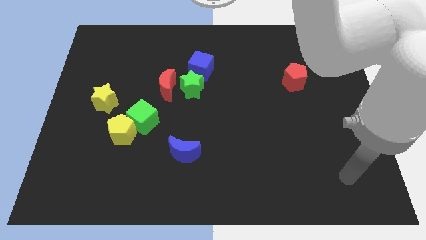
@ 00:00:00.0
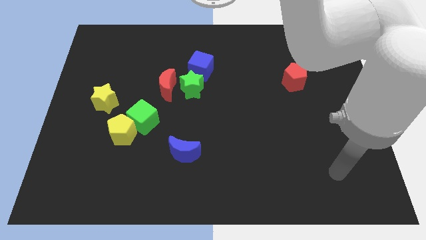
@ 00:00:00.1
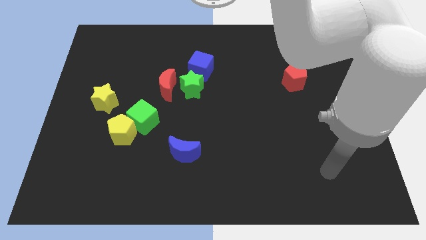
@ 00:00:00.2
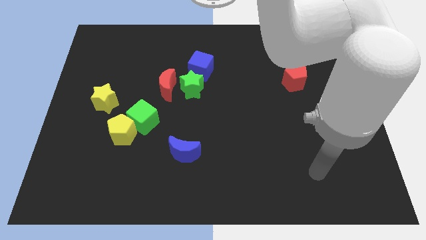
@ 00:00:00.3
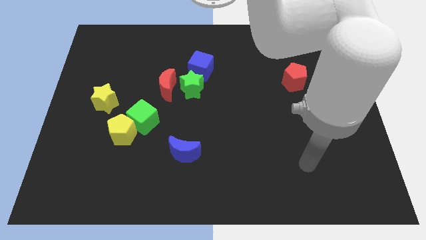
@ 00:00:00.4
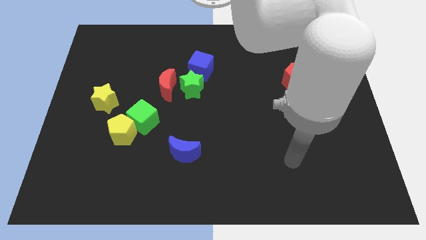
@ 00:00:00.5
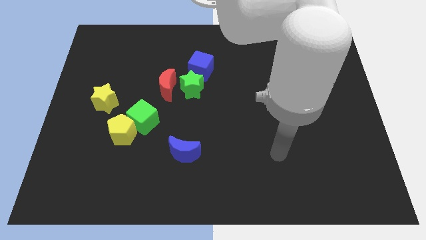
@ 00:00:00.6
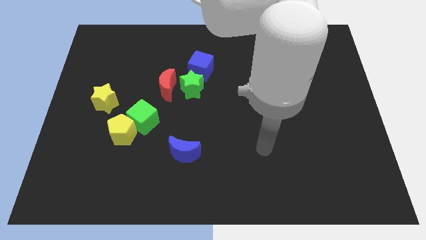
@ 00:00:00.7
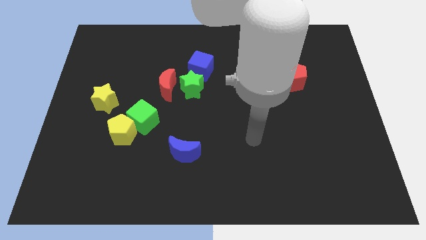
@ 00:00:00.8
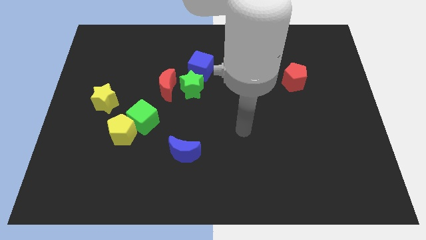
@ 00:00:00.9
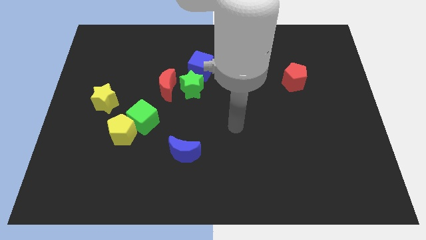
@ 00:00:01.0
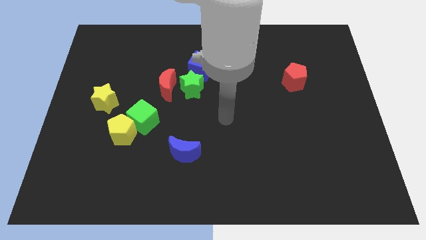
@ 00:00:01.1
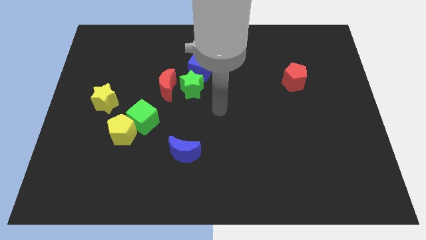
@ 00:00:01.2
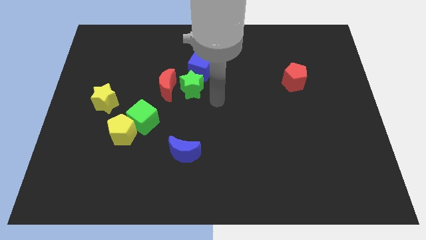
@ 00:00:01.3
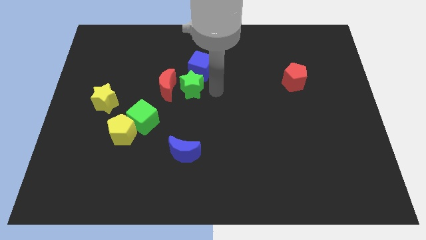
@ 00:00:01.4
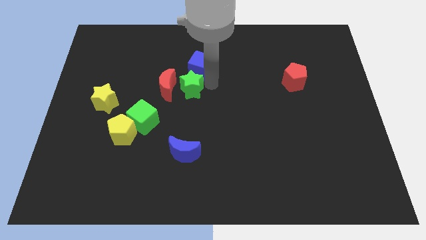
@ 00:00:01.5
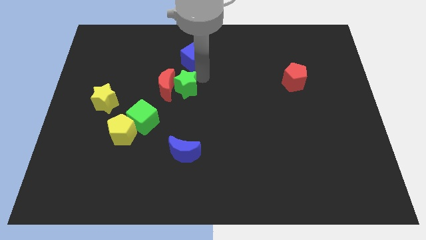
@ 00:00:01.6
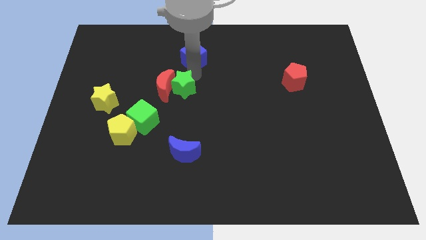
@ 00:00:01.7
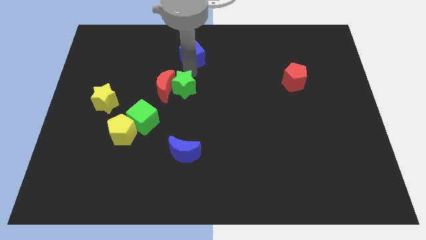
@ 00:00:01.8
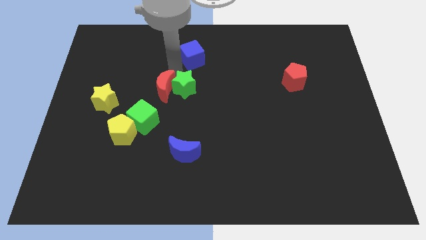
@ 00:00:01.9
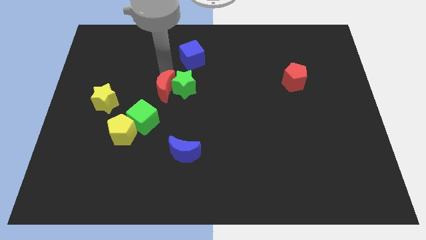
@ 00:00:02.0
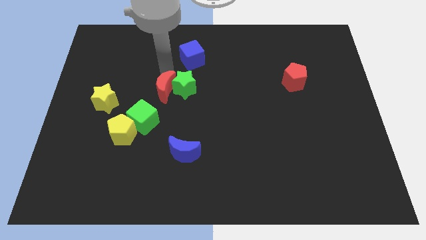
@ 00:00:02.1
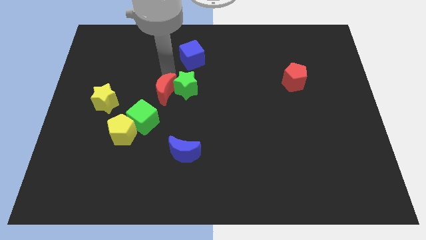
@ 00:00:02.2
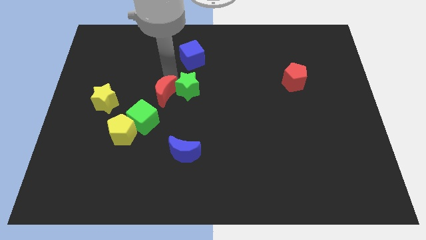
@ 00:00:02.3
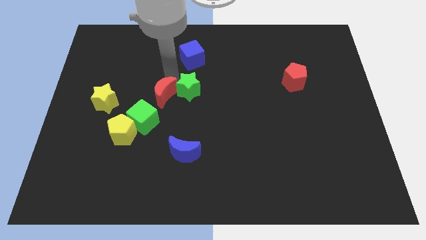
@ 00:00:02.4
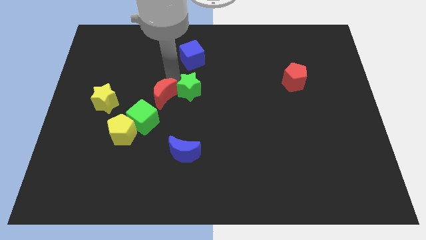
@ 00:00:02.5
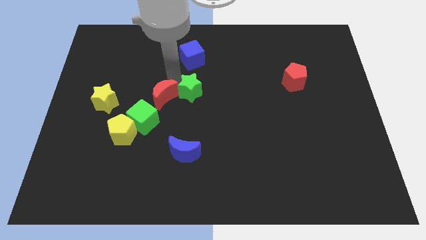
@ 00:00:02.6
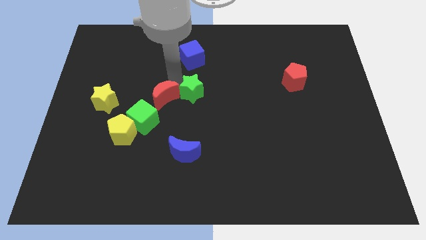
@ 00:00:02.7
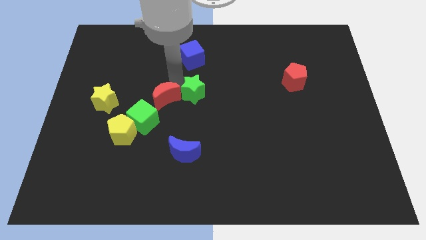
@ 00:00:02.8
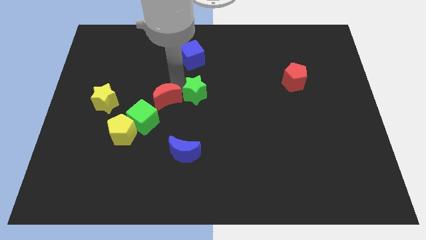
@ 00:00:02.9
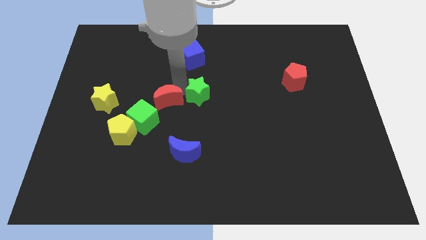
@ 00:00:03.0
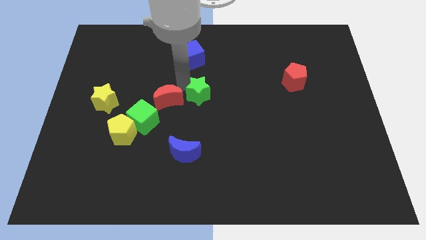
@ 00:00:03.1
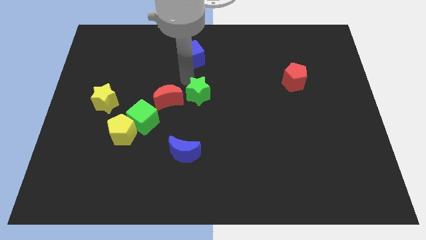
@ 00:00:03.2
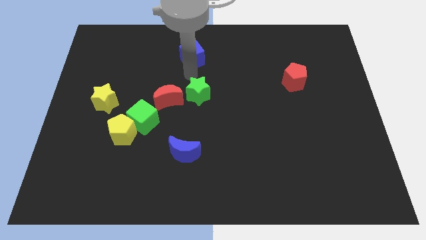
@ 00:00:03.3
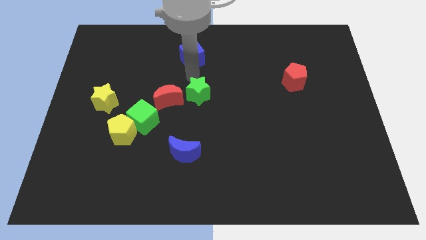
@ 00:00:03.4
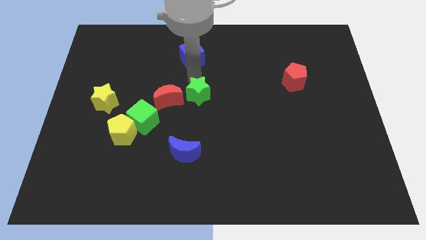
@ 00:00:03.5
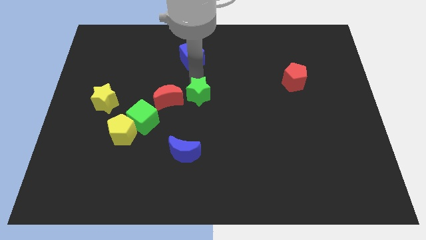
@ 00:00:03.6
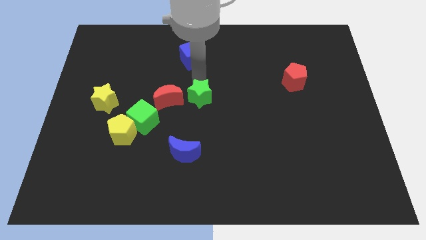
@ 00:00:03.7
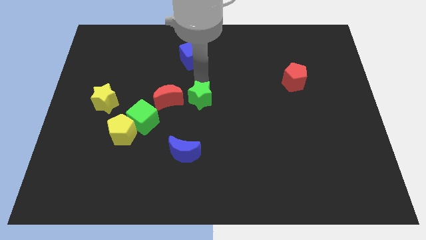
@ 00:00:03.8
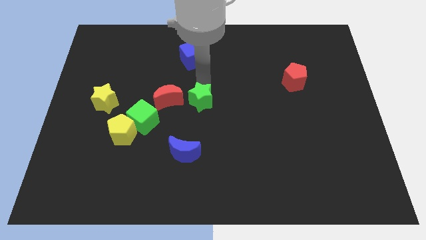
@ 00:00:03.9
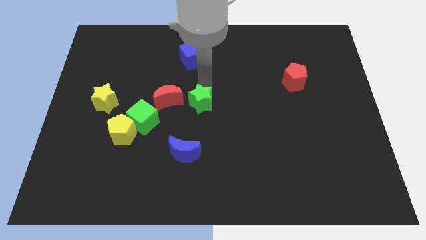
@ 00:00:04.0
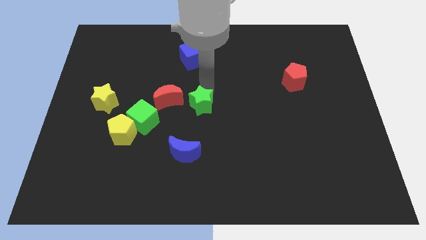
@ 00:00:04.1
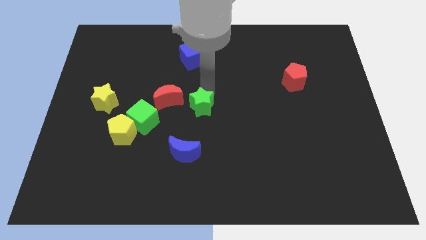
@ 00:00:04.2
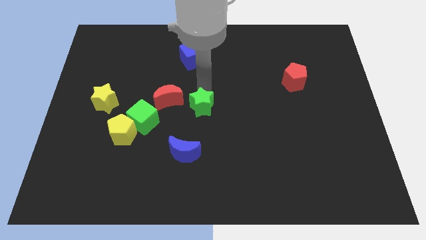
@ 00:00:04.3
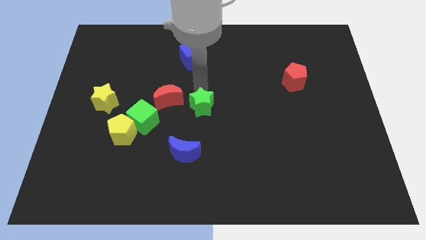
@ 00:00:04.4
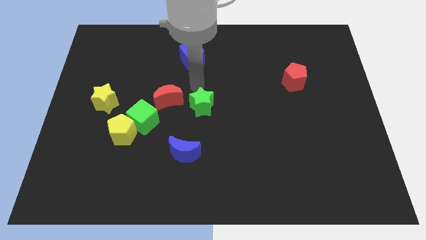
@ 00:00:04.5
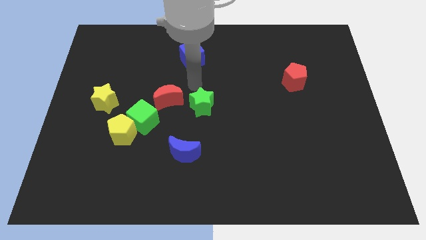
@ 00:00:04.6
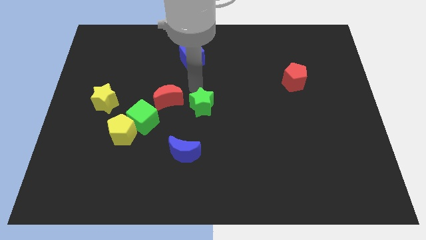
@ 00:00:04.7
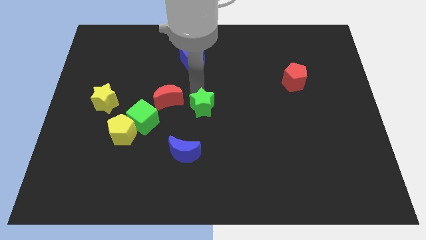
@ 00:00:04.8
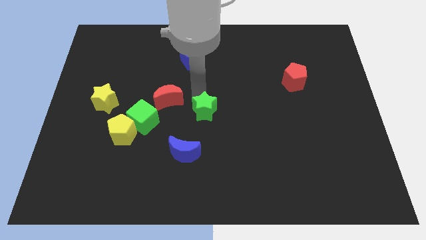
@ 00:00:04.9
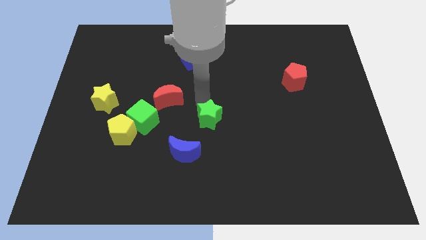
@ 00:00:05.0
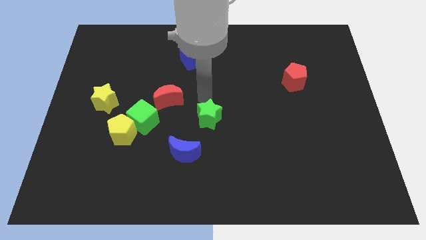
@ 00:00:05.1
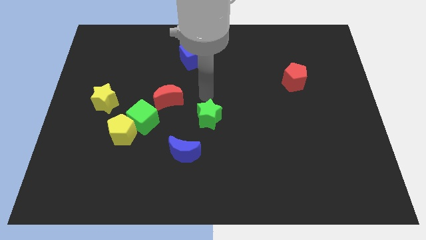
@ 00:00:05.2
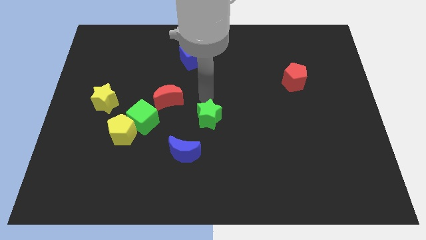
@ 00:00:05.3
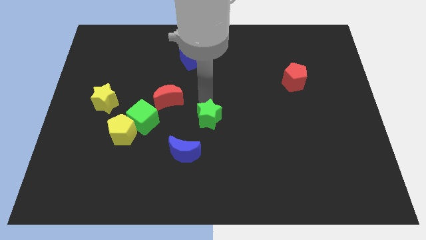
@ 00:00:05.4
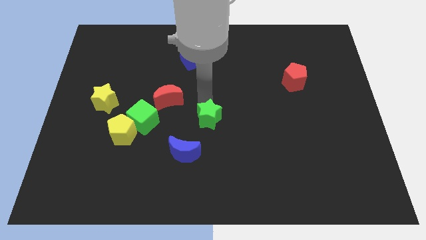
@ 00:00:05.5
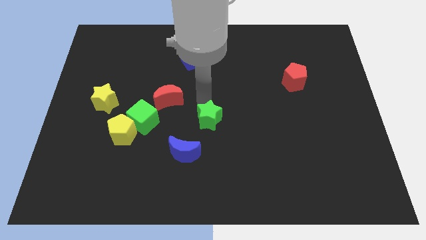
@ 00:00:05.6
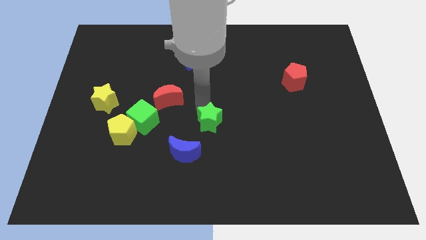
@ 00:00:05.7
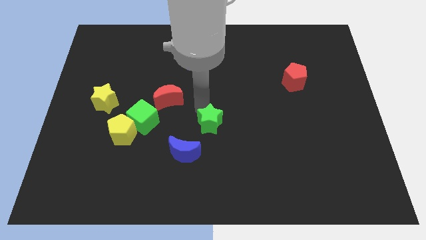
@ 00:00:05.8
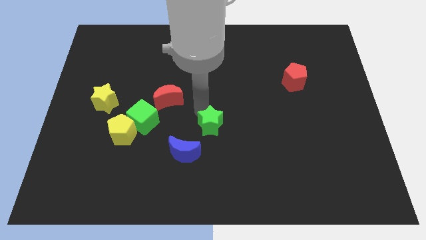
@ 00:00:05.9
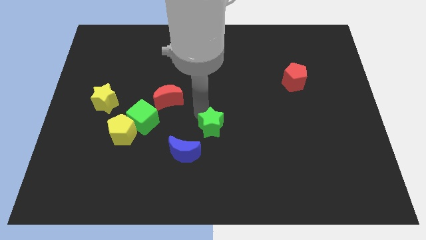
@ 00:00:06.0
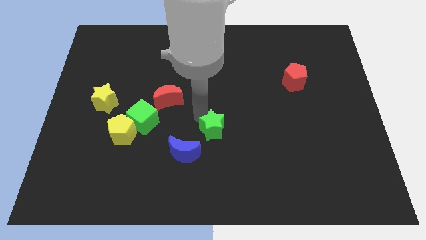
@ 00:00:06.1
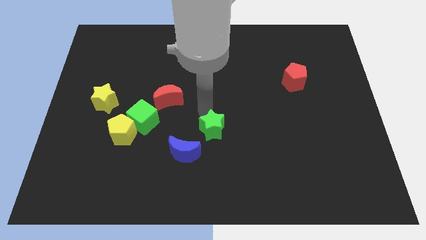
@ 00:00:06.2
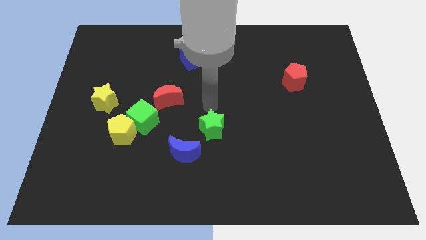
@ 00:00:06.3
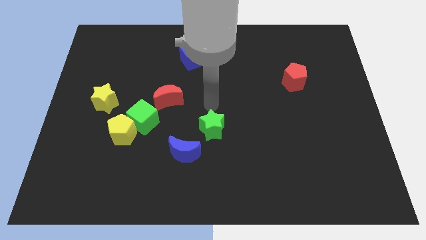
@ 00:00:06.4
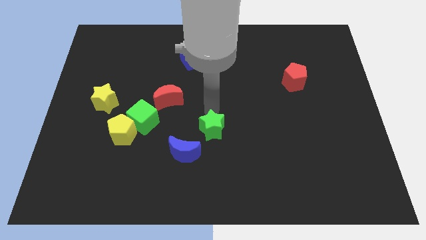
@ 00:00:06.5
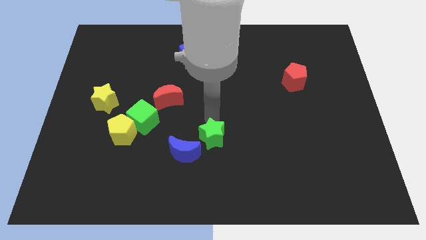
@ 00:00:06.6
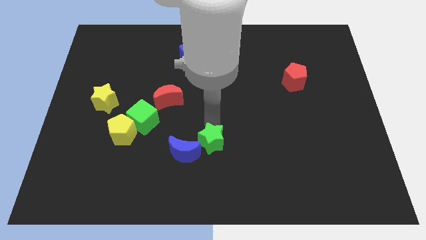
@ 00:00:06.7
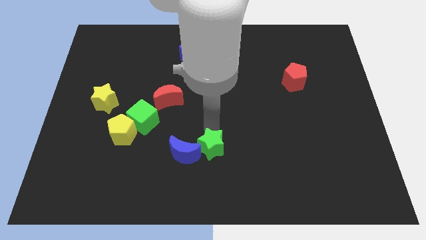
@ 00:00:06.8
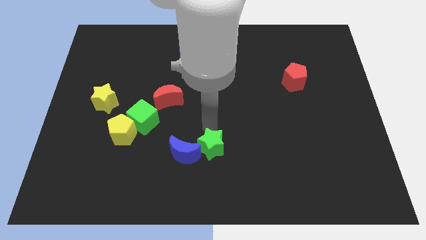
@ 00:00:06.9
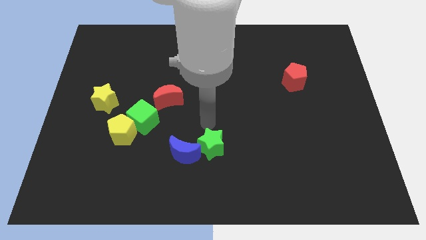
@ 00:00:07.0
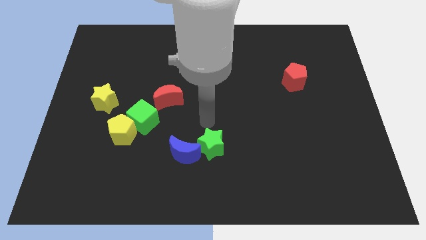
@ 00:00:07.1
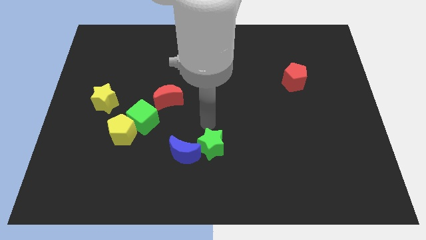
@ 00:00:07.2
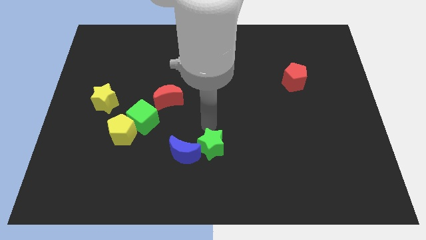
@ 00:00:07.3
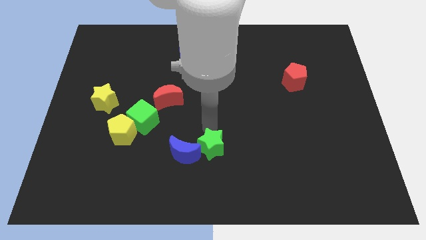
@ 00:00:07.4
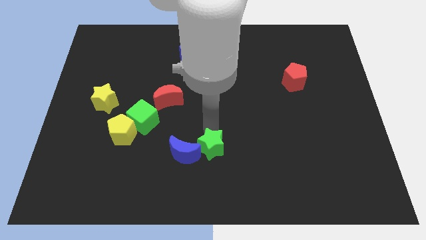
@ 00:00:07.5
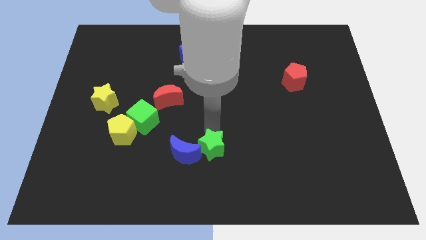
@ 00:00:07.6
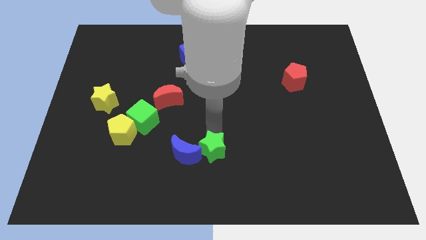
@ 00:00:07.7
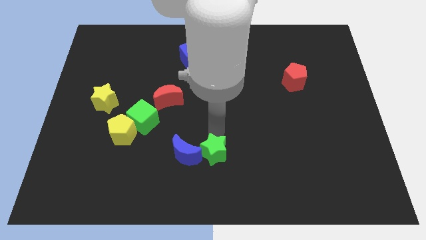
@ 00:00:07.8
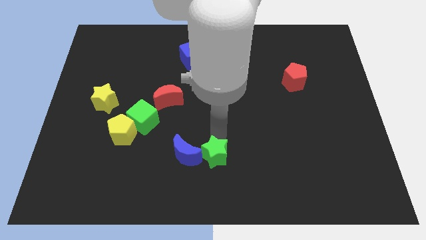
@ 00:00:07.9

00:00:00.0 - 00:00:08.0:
move the green star to the bottom
